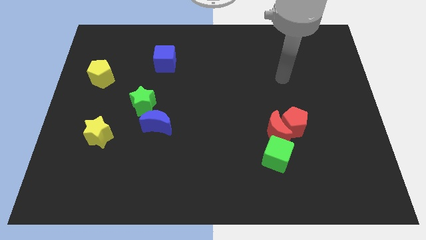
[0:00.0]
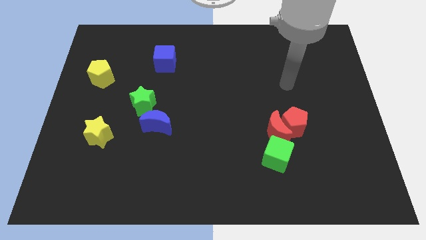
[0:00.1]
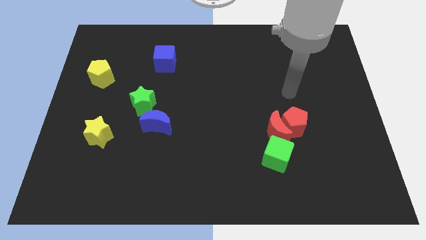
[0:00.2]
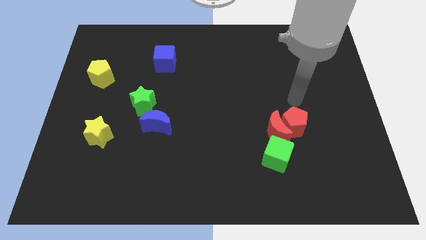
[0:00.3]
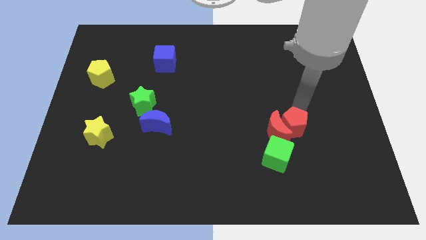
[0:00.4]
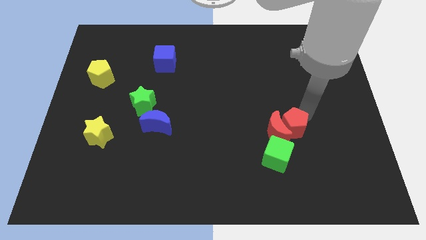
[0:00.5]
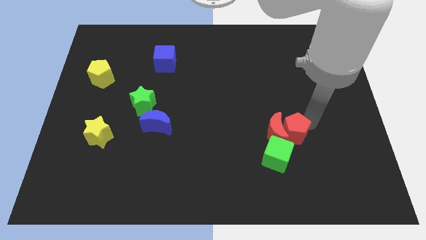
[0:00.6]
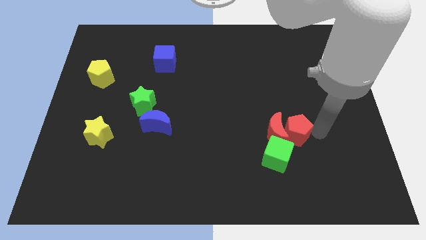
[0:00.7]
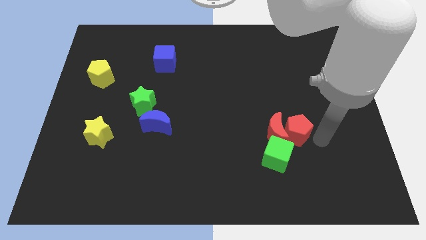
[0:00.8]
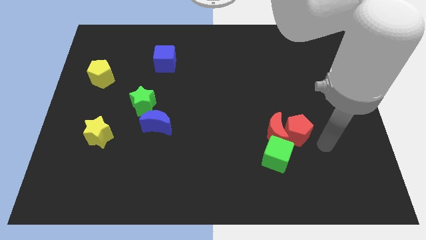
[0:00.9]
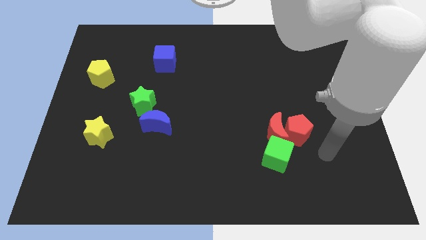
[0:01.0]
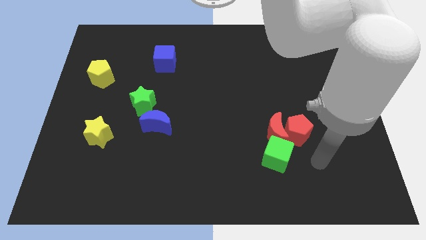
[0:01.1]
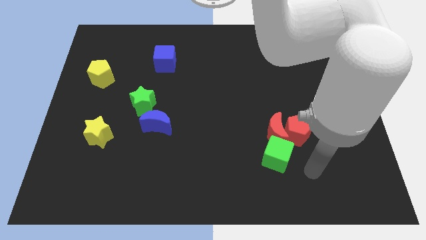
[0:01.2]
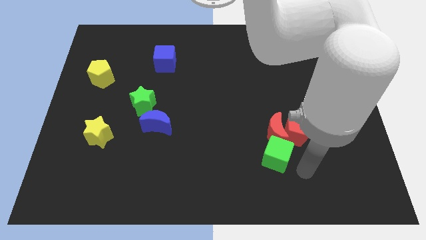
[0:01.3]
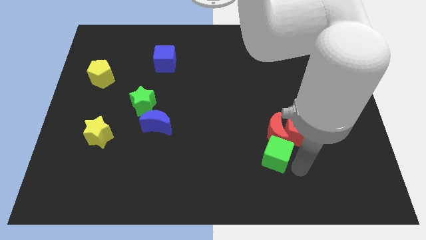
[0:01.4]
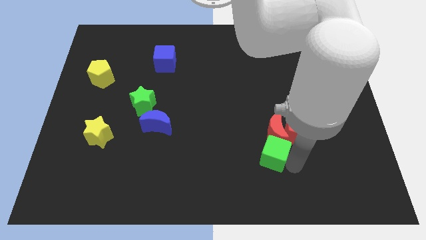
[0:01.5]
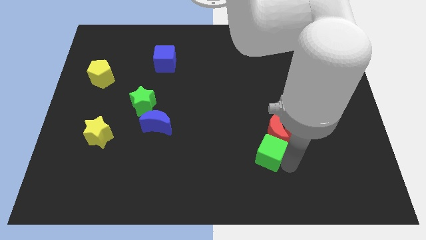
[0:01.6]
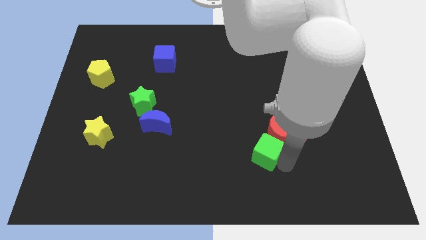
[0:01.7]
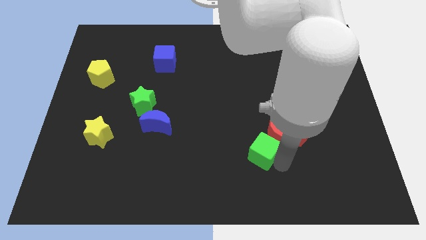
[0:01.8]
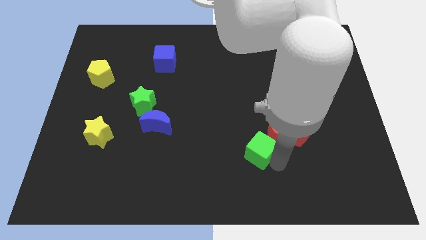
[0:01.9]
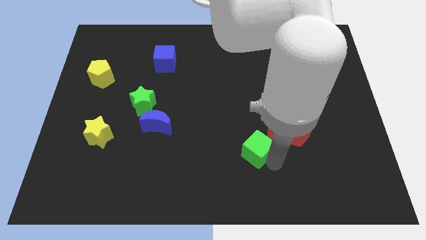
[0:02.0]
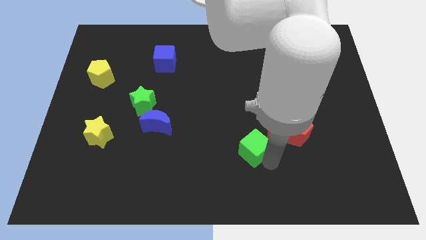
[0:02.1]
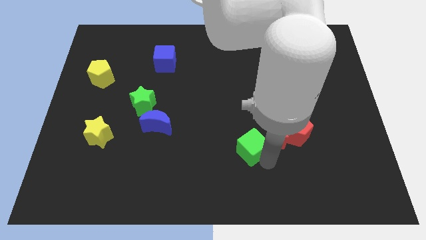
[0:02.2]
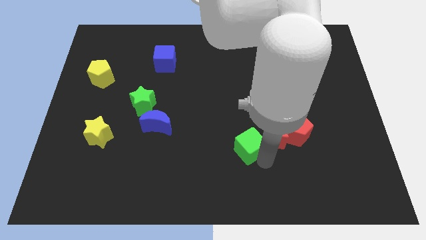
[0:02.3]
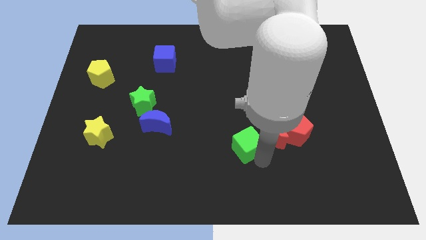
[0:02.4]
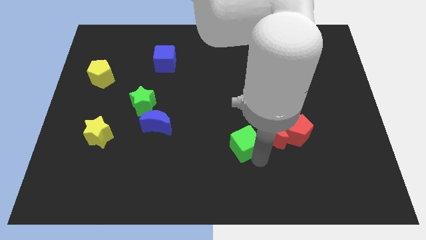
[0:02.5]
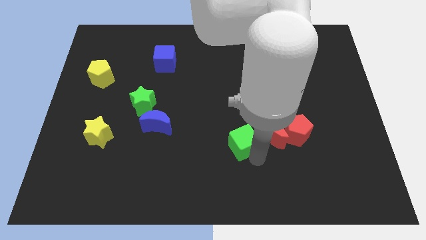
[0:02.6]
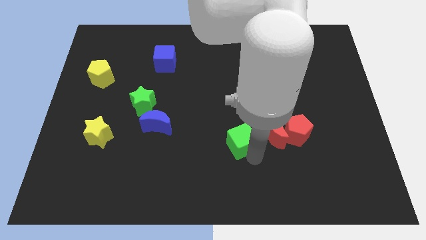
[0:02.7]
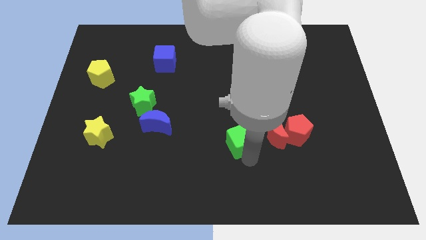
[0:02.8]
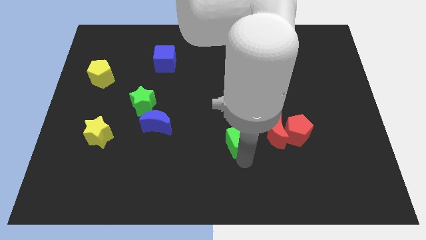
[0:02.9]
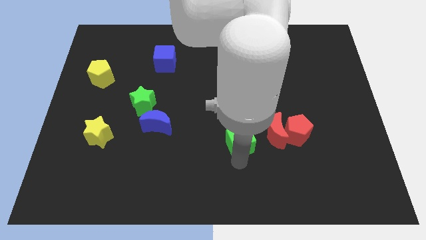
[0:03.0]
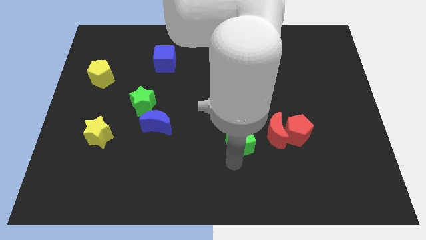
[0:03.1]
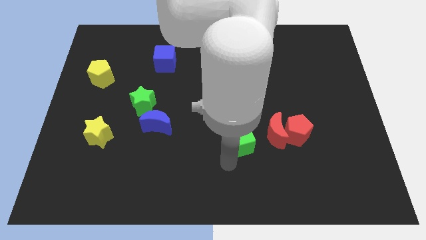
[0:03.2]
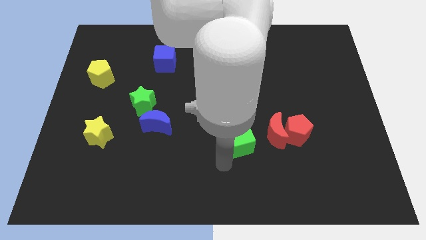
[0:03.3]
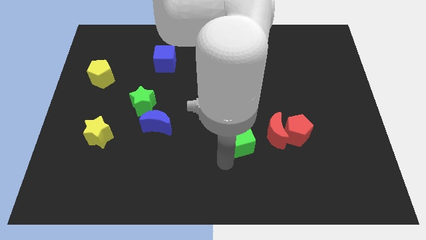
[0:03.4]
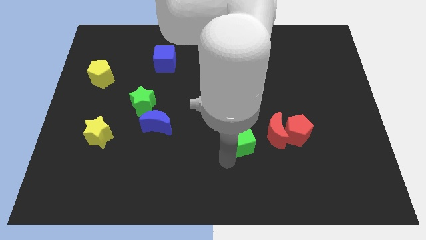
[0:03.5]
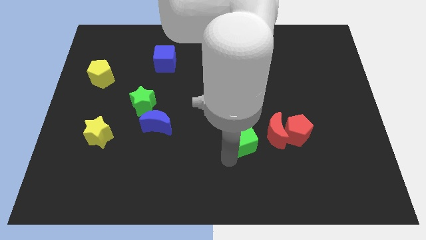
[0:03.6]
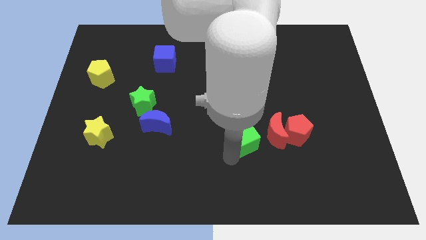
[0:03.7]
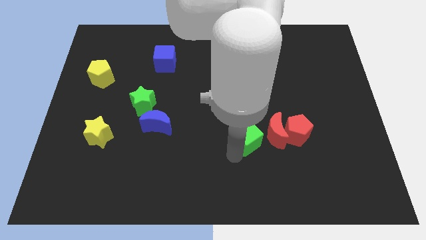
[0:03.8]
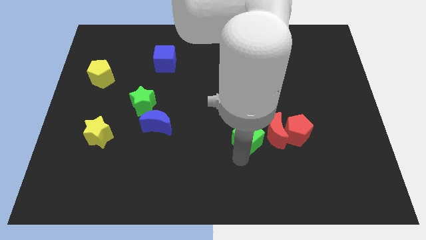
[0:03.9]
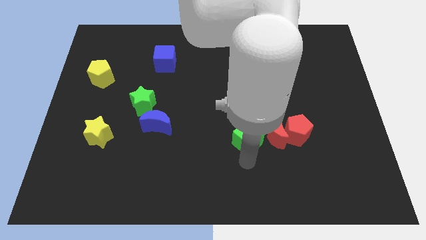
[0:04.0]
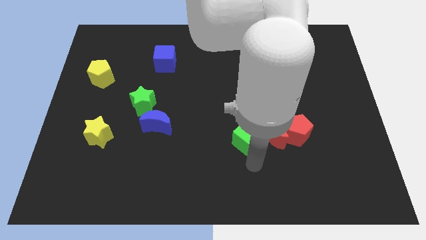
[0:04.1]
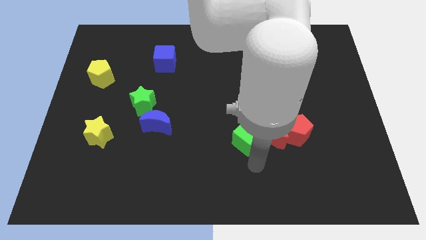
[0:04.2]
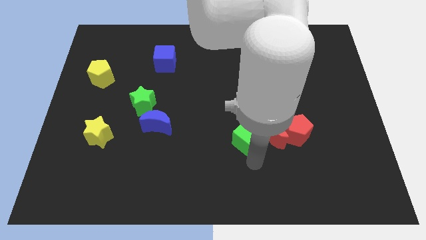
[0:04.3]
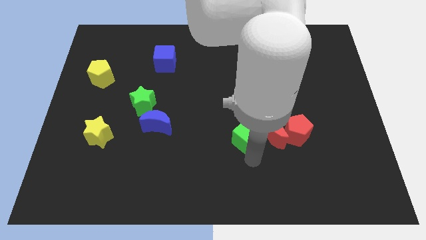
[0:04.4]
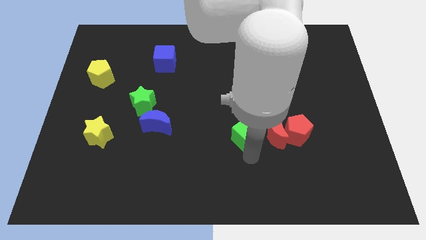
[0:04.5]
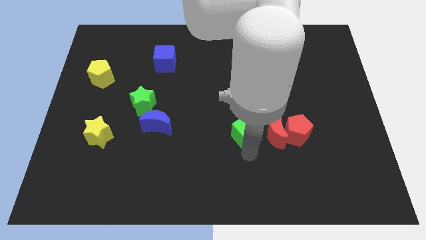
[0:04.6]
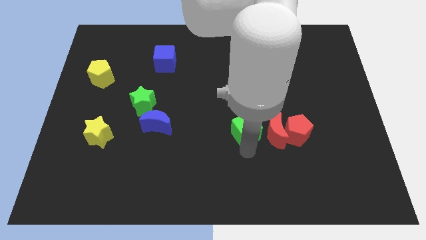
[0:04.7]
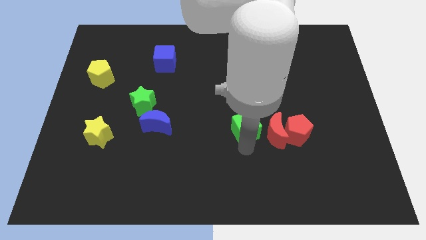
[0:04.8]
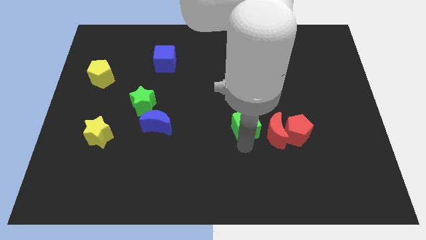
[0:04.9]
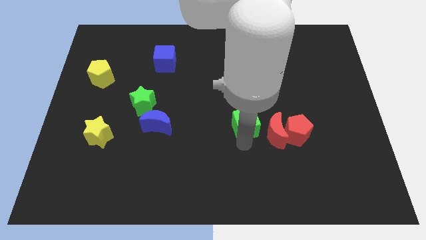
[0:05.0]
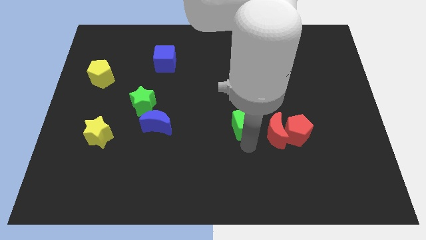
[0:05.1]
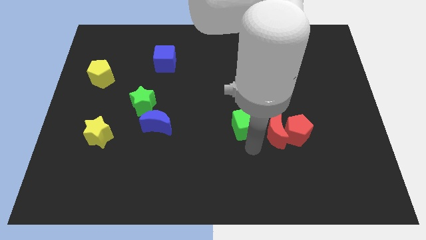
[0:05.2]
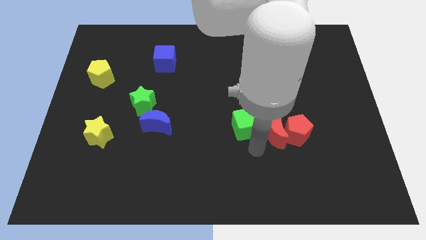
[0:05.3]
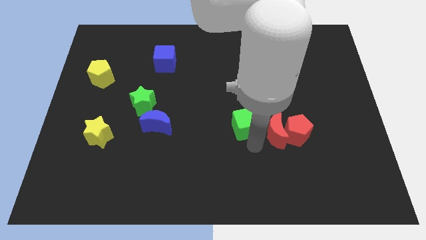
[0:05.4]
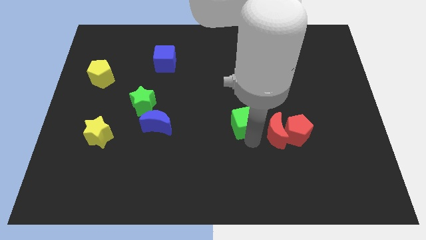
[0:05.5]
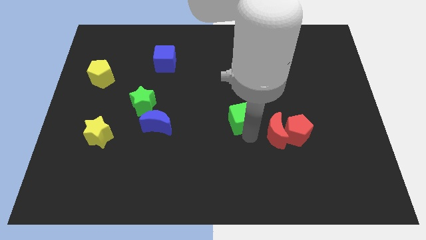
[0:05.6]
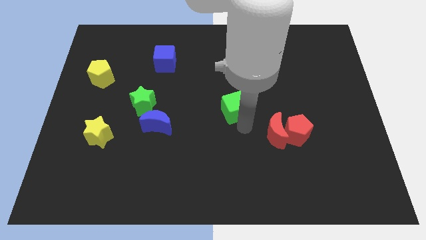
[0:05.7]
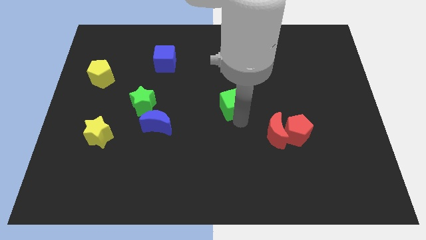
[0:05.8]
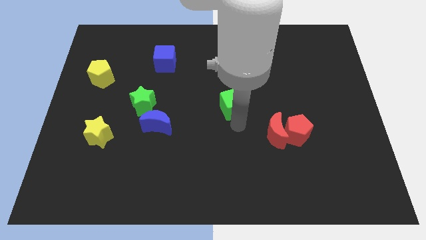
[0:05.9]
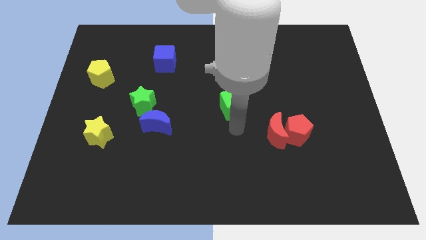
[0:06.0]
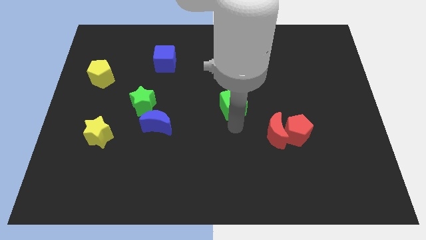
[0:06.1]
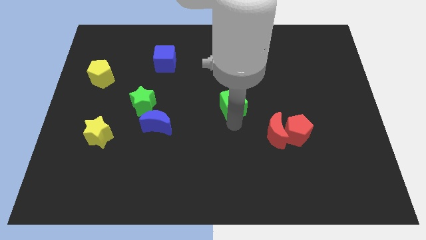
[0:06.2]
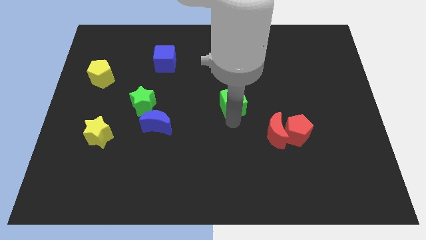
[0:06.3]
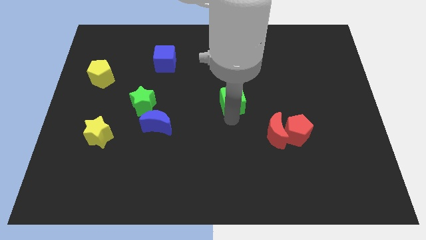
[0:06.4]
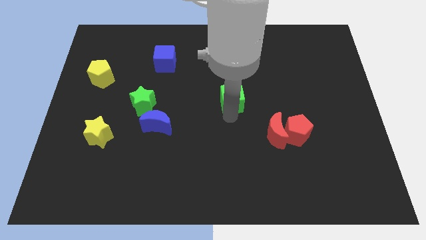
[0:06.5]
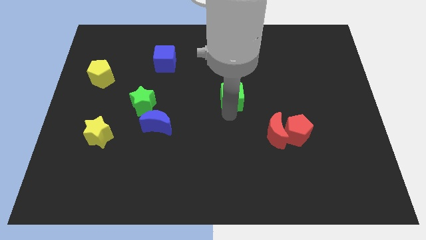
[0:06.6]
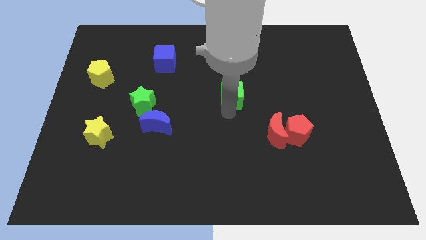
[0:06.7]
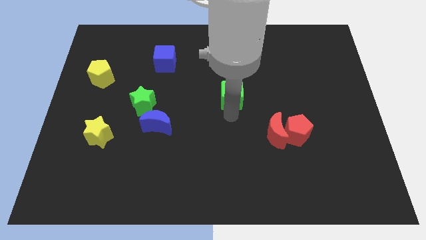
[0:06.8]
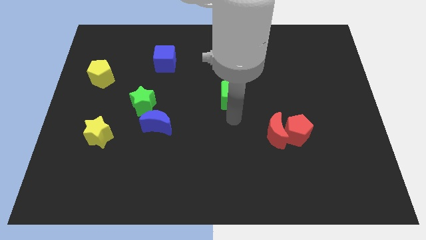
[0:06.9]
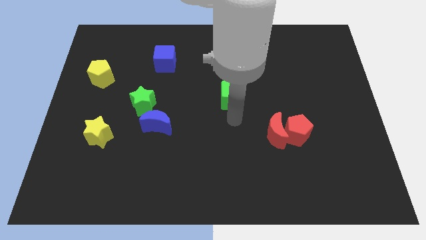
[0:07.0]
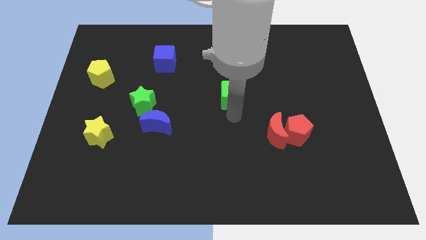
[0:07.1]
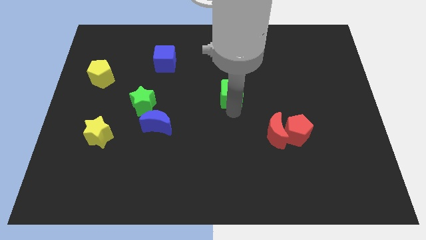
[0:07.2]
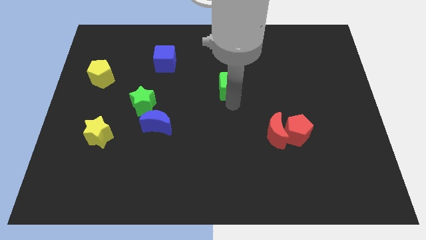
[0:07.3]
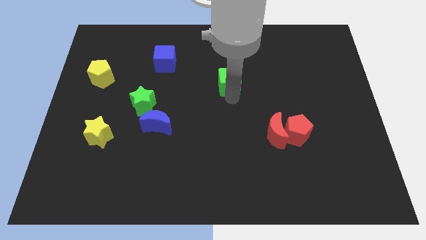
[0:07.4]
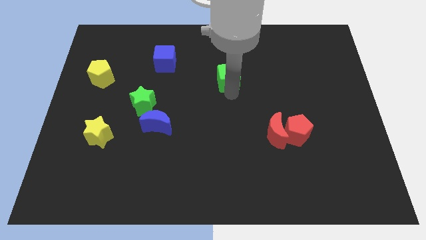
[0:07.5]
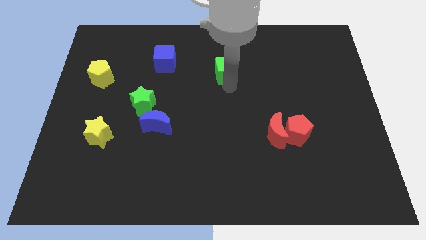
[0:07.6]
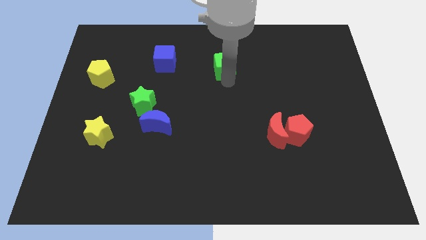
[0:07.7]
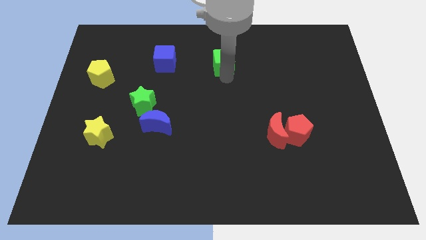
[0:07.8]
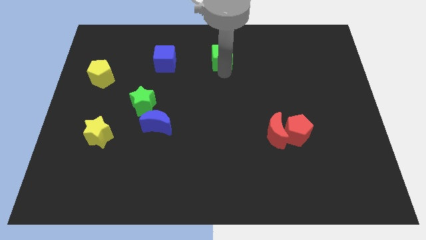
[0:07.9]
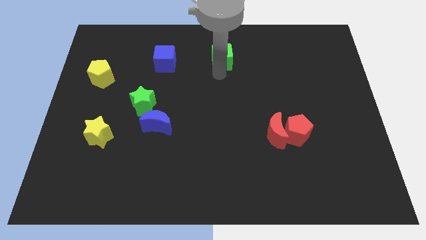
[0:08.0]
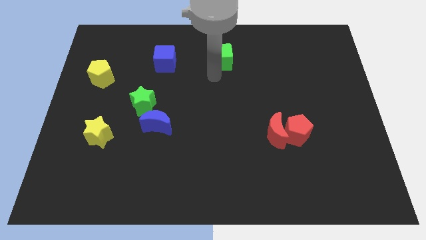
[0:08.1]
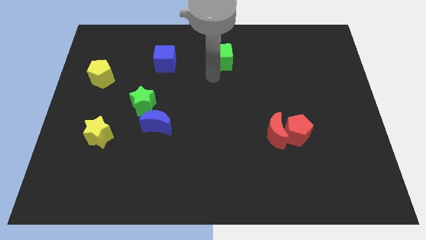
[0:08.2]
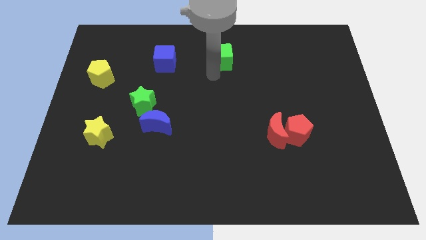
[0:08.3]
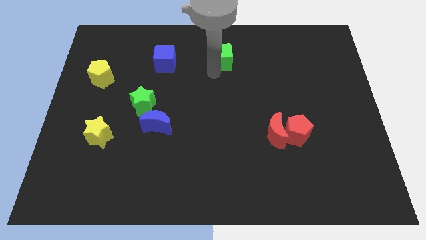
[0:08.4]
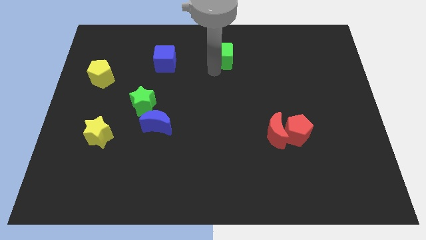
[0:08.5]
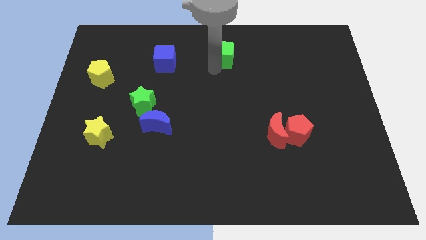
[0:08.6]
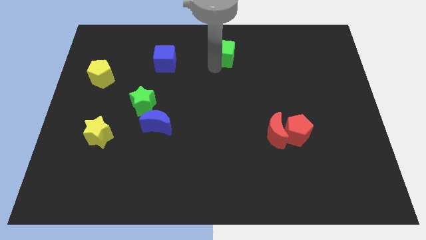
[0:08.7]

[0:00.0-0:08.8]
put the green cube to the top
